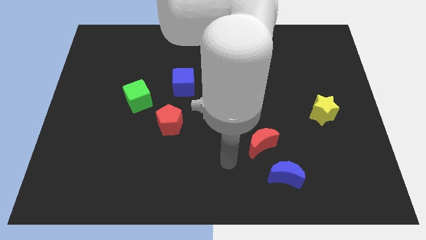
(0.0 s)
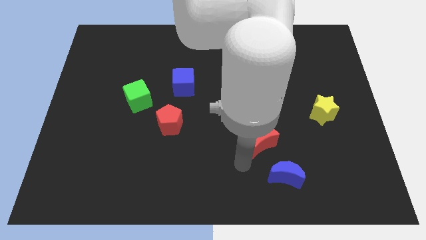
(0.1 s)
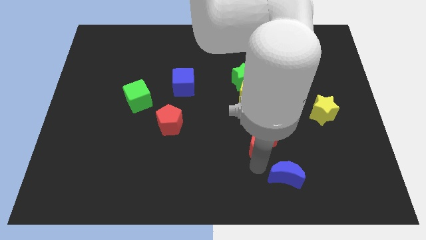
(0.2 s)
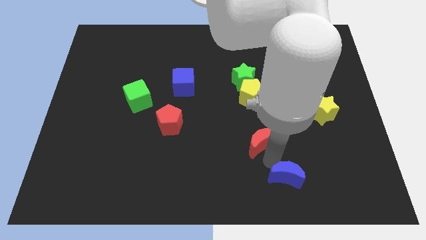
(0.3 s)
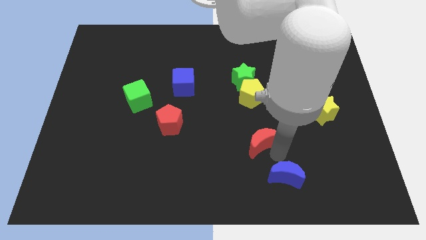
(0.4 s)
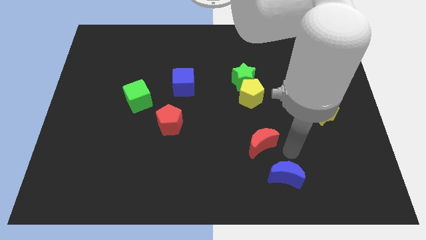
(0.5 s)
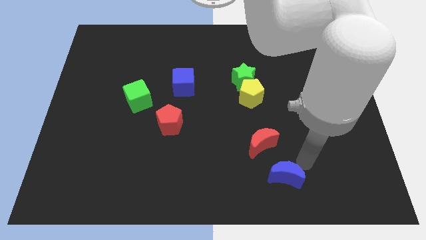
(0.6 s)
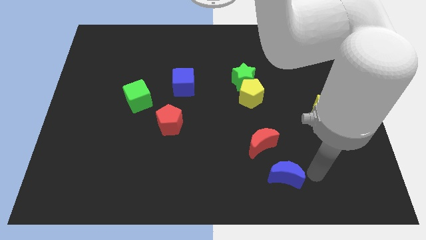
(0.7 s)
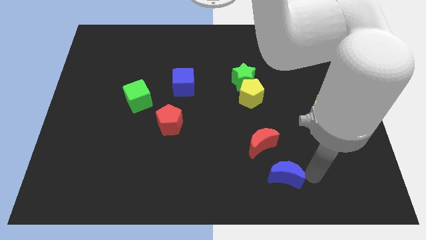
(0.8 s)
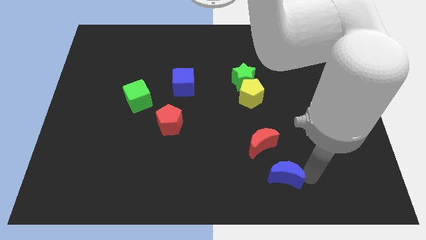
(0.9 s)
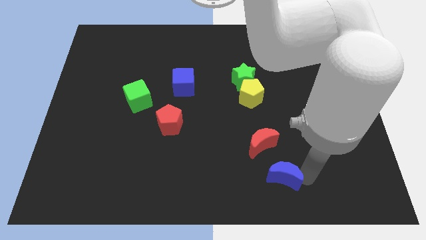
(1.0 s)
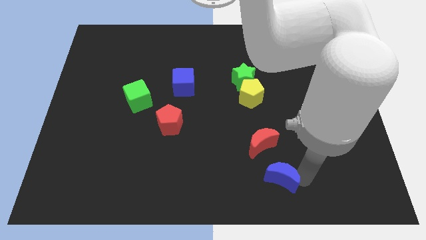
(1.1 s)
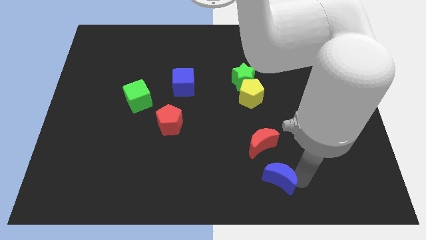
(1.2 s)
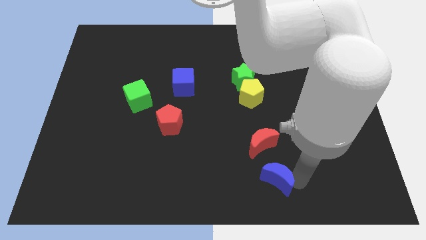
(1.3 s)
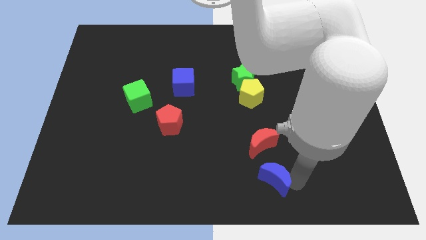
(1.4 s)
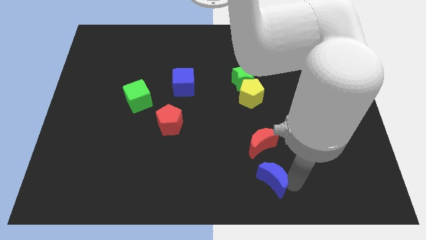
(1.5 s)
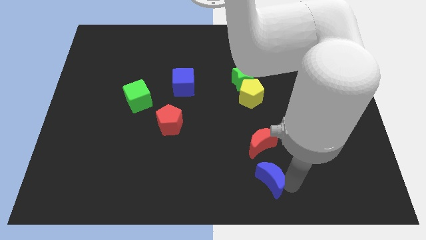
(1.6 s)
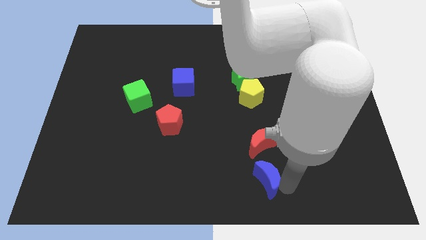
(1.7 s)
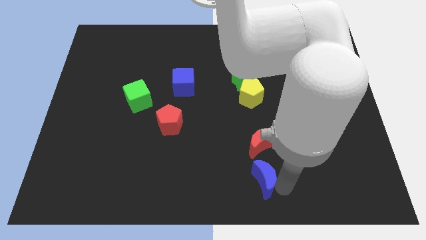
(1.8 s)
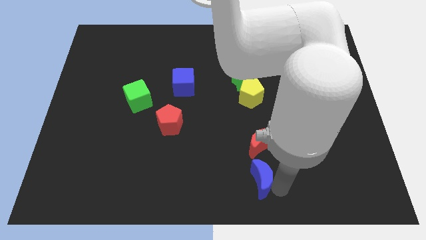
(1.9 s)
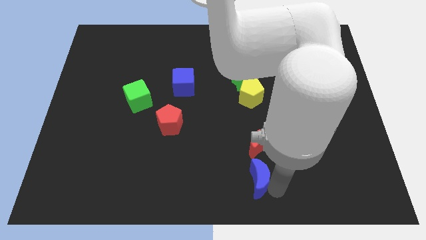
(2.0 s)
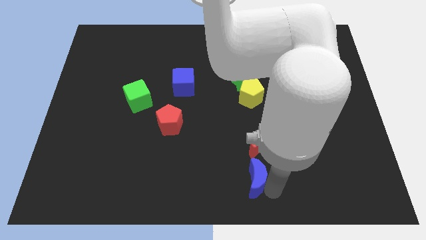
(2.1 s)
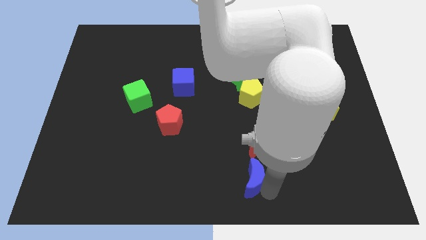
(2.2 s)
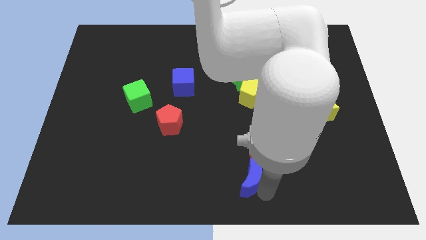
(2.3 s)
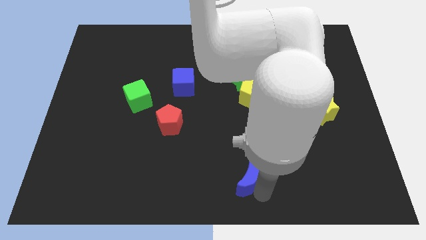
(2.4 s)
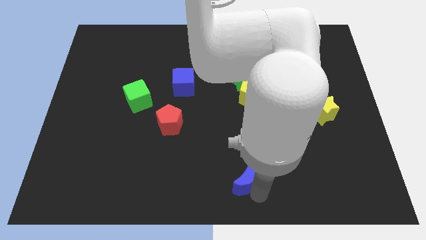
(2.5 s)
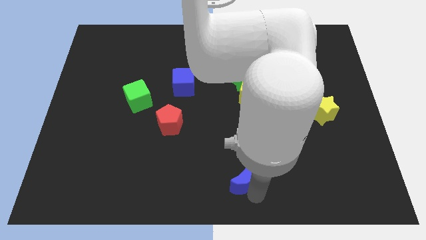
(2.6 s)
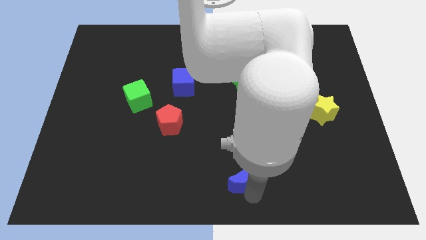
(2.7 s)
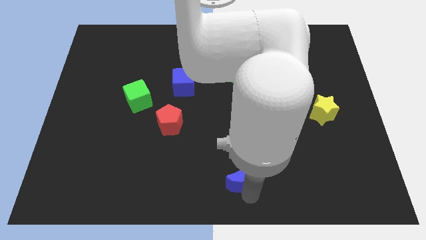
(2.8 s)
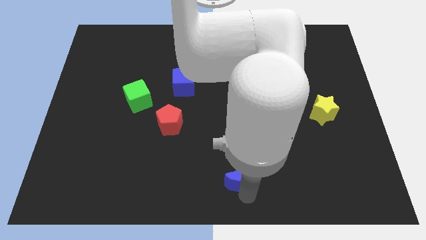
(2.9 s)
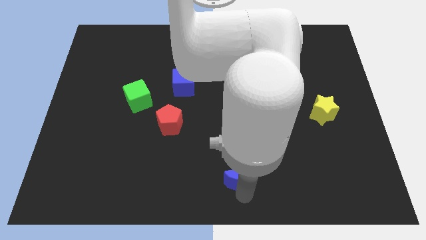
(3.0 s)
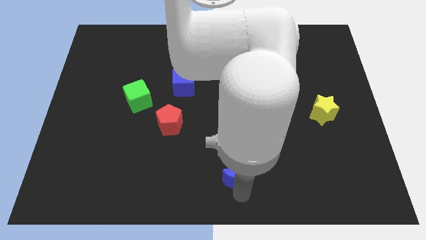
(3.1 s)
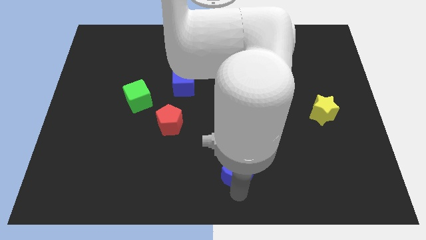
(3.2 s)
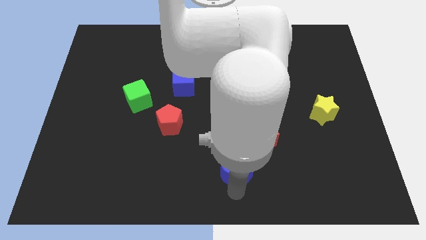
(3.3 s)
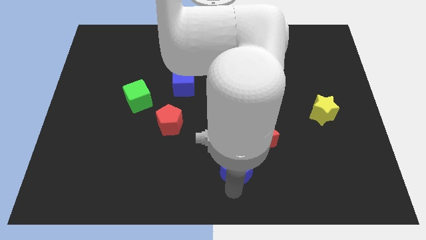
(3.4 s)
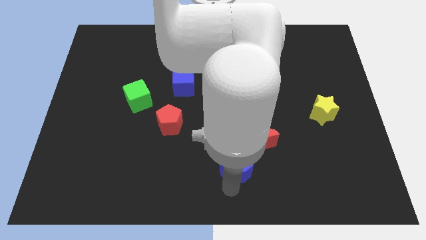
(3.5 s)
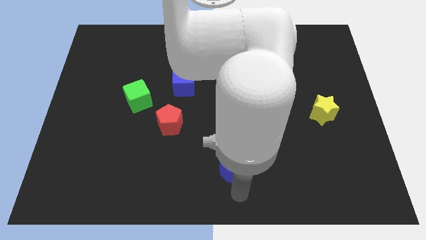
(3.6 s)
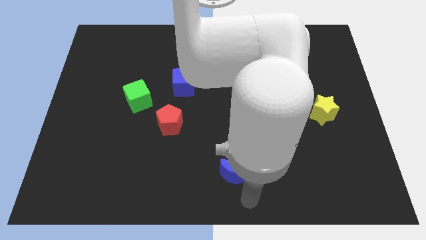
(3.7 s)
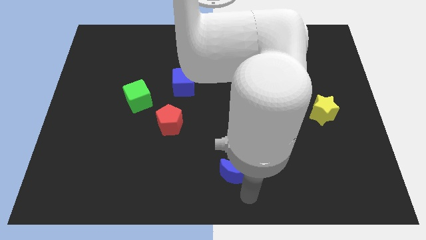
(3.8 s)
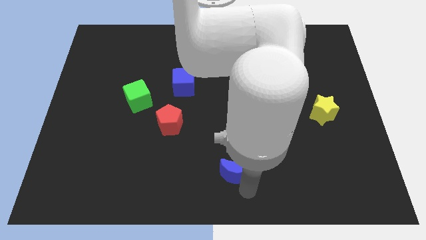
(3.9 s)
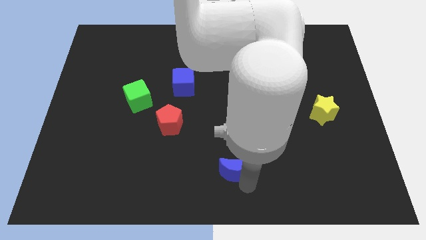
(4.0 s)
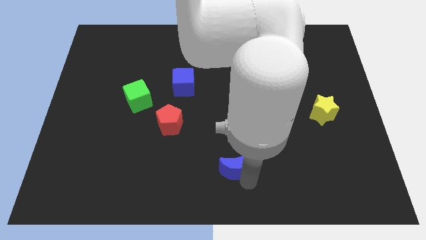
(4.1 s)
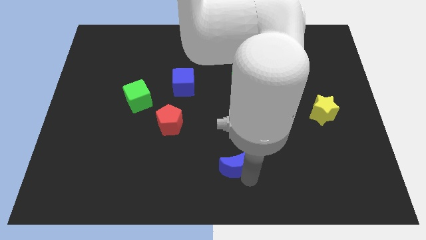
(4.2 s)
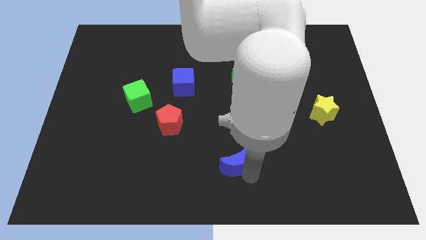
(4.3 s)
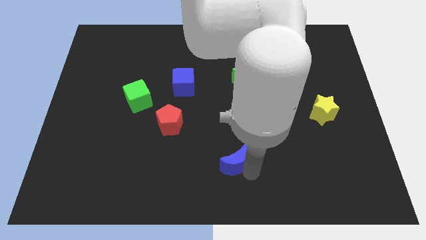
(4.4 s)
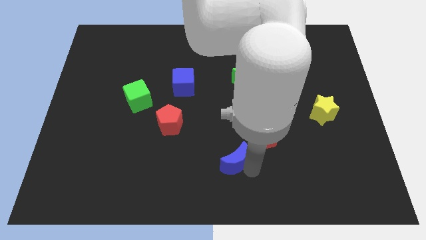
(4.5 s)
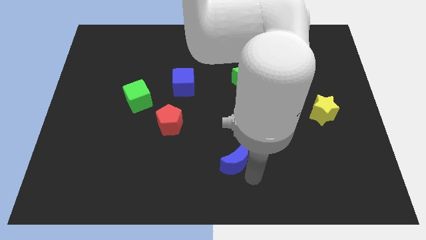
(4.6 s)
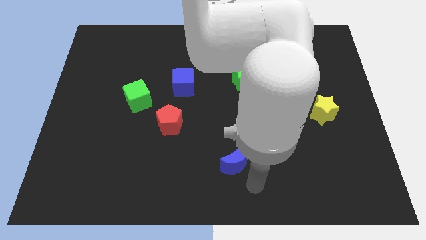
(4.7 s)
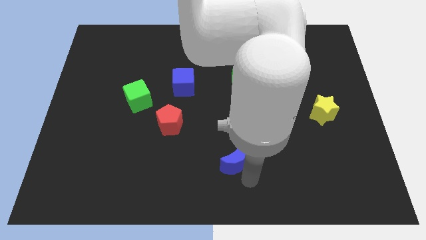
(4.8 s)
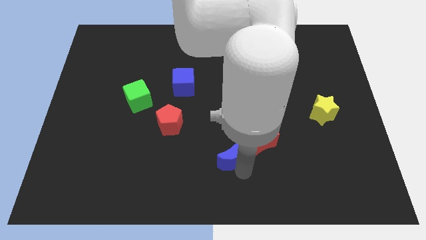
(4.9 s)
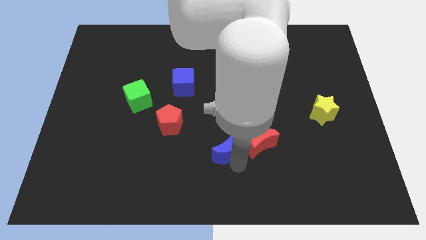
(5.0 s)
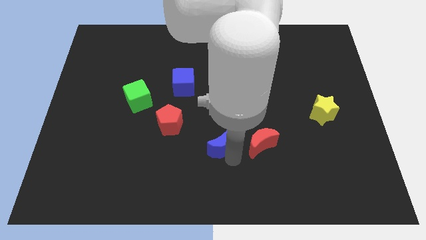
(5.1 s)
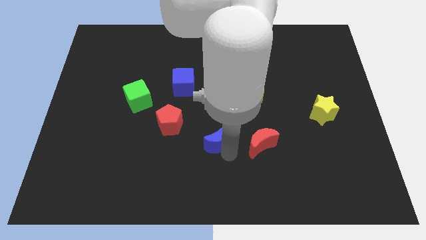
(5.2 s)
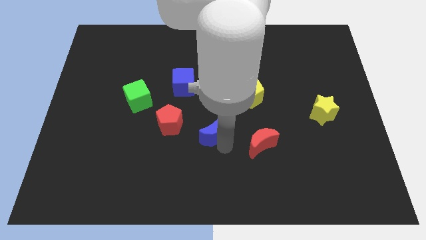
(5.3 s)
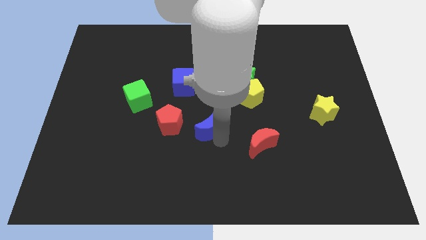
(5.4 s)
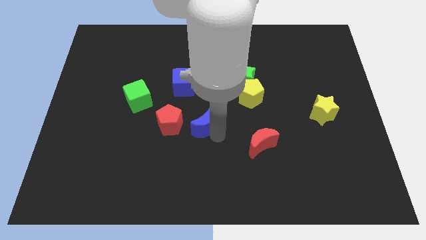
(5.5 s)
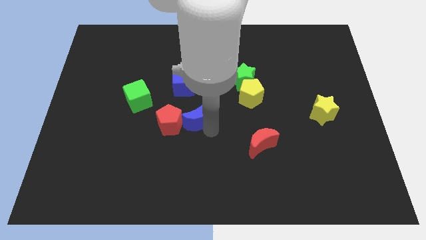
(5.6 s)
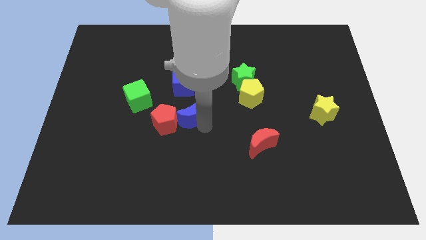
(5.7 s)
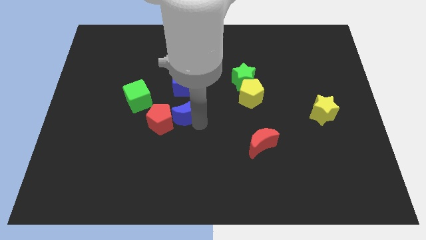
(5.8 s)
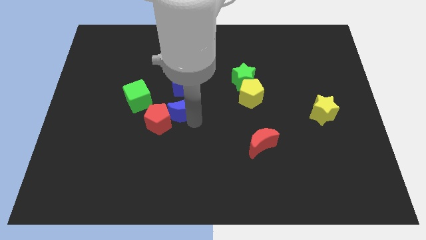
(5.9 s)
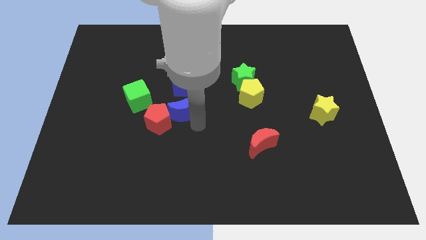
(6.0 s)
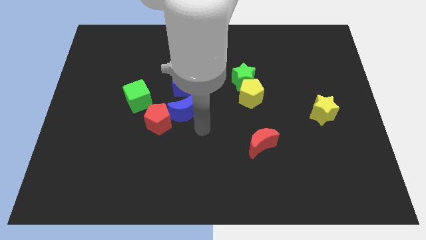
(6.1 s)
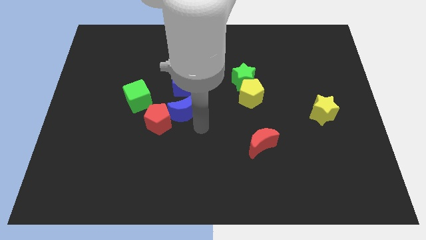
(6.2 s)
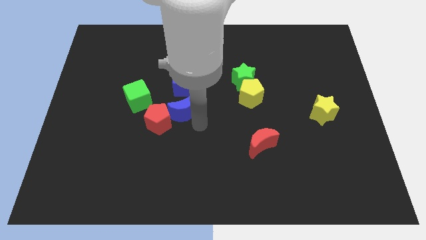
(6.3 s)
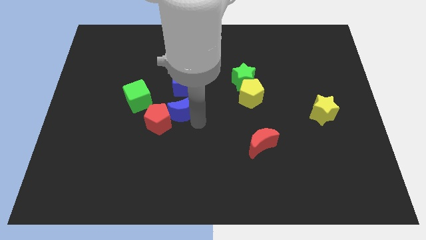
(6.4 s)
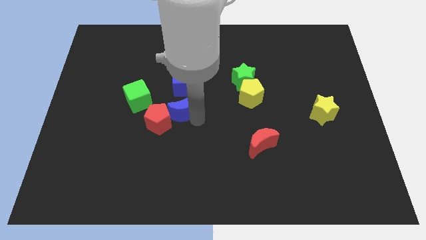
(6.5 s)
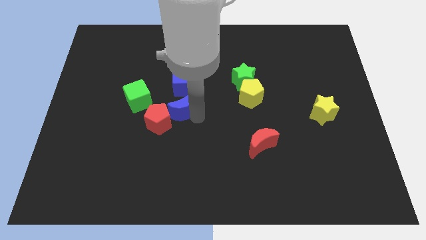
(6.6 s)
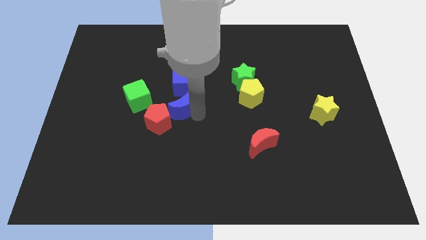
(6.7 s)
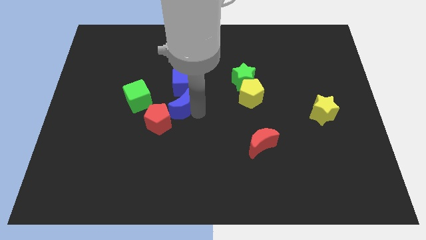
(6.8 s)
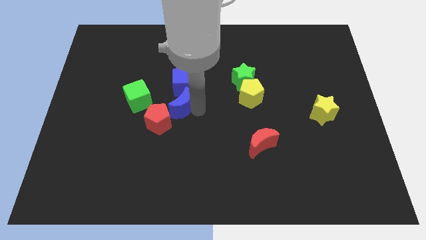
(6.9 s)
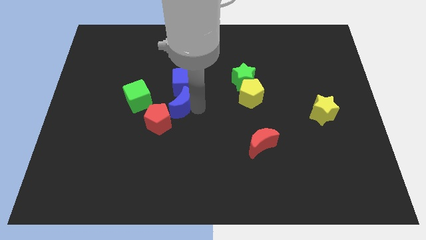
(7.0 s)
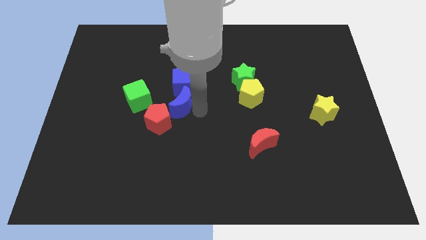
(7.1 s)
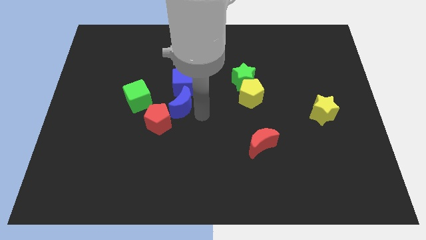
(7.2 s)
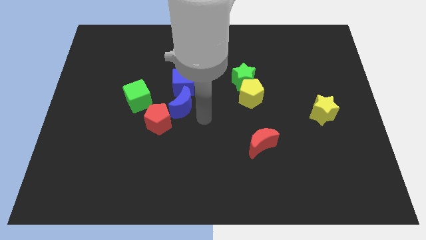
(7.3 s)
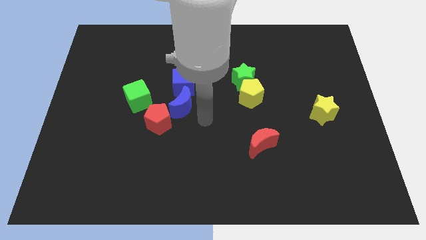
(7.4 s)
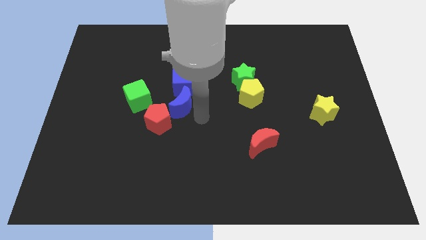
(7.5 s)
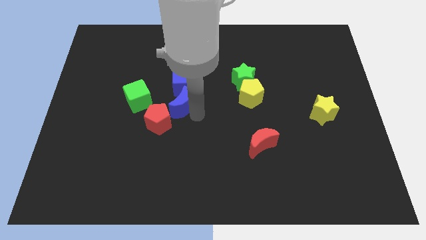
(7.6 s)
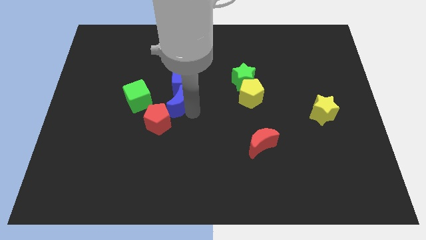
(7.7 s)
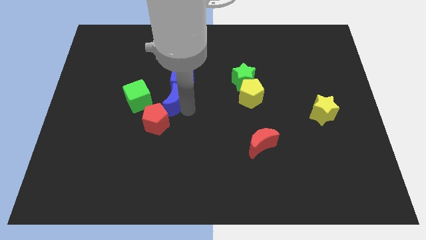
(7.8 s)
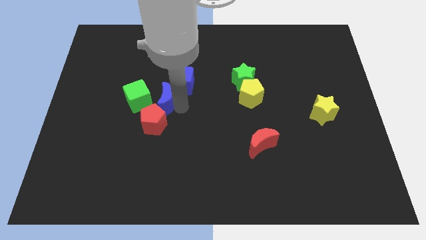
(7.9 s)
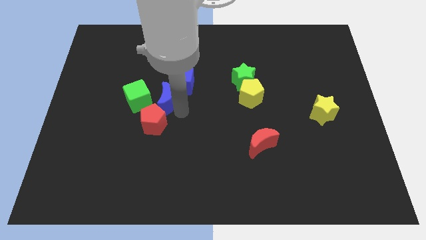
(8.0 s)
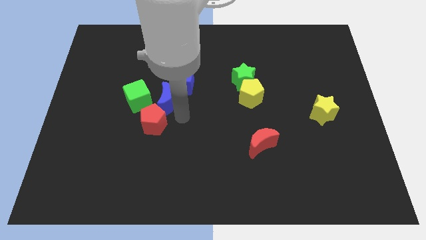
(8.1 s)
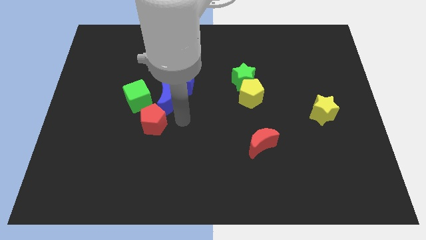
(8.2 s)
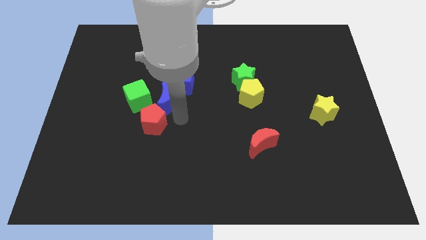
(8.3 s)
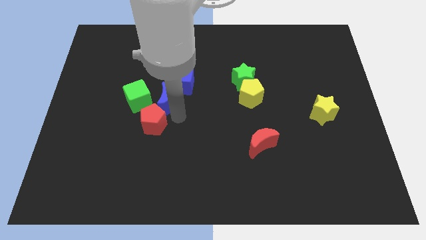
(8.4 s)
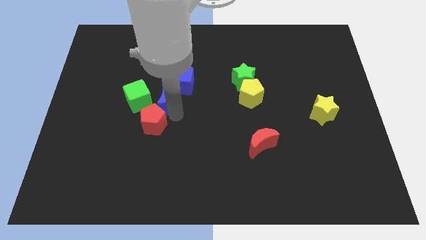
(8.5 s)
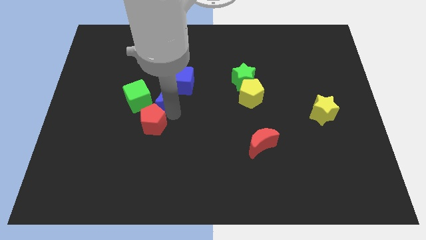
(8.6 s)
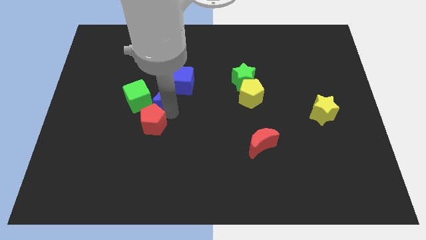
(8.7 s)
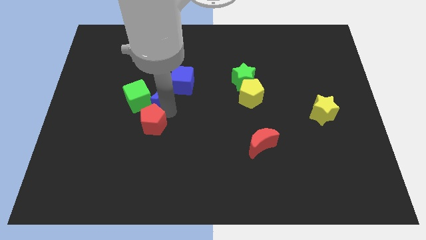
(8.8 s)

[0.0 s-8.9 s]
slide the blue moon left of the blue cube
